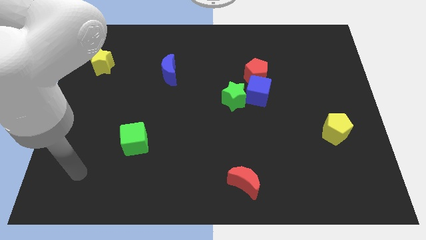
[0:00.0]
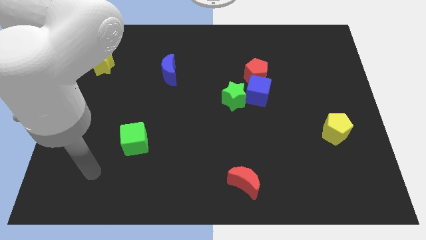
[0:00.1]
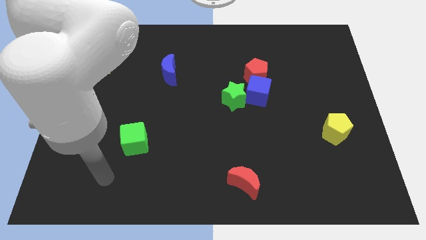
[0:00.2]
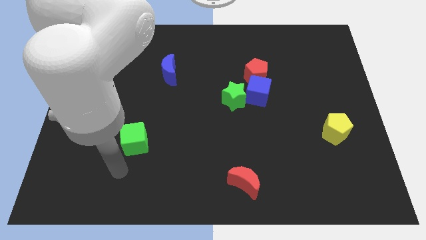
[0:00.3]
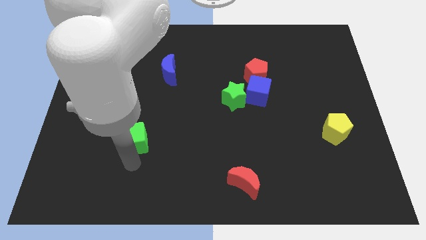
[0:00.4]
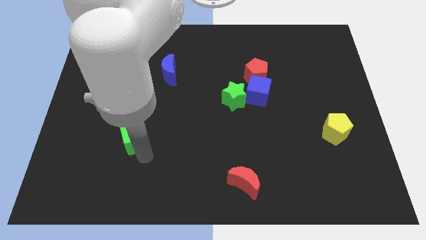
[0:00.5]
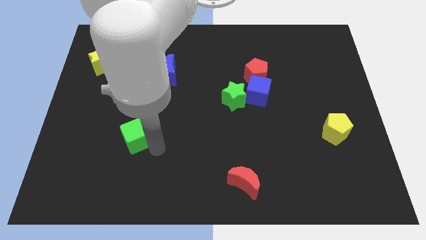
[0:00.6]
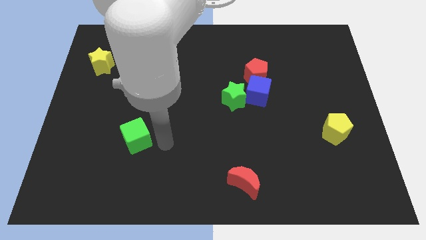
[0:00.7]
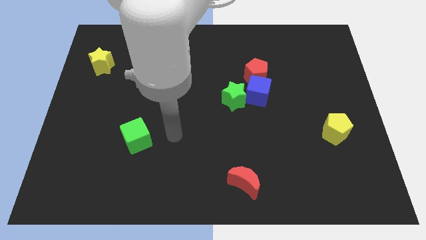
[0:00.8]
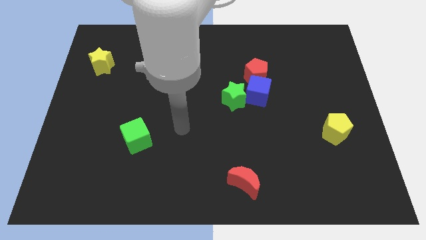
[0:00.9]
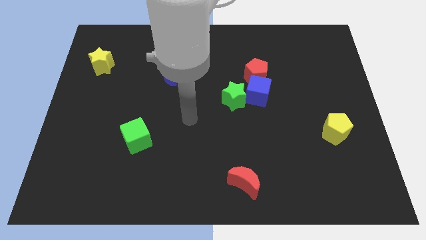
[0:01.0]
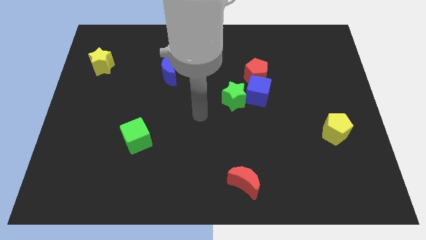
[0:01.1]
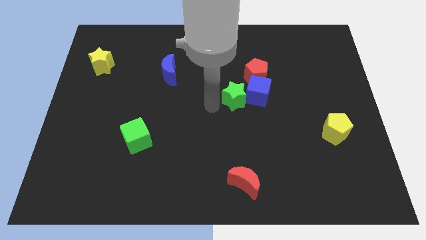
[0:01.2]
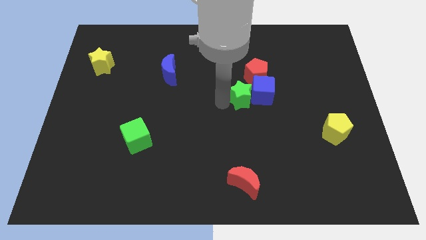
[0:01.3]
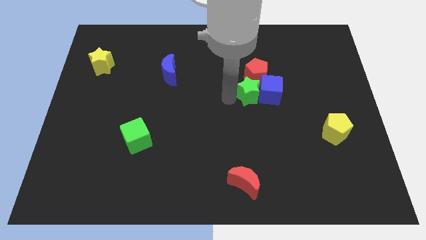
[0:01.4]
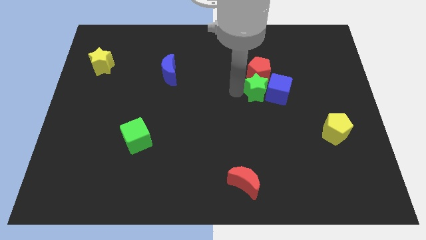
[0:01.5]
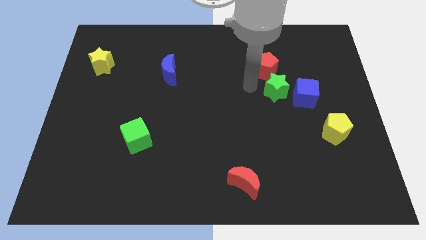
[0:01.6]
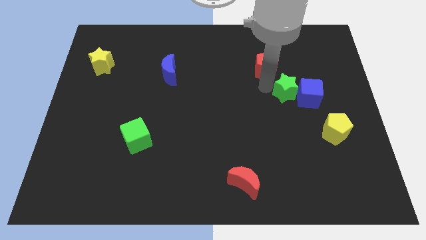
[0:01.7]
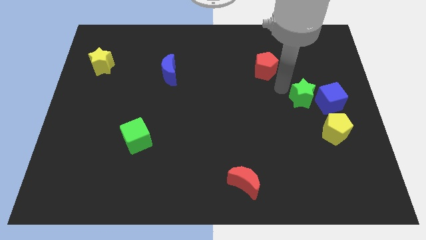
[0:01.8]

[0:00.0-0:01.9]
separate the blue cube from the green star and red pentagon

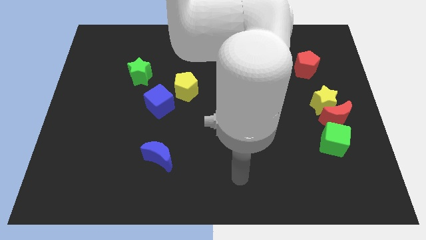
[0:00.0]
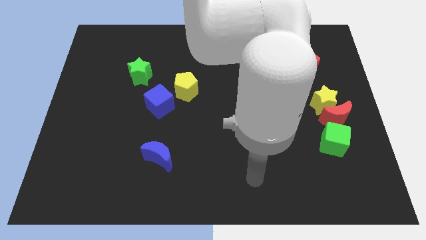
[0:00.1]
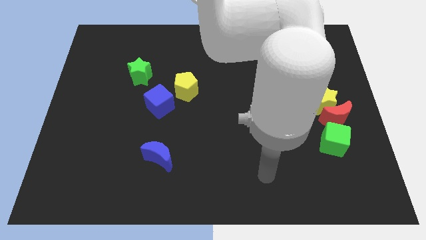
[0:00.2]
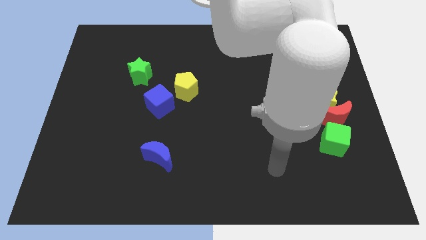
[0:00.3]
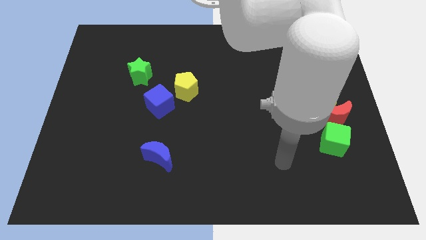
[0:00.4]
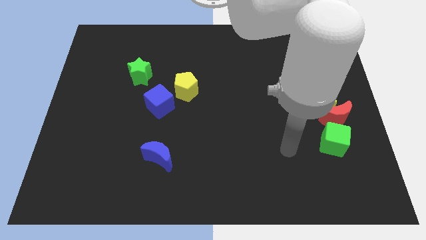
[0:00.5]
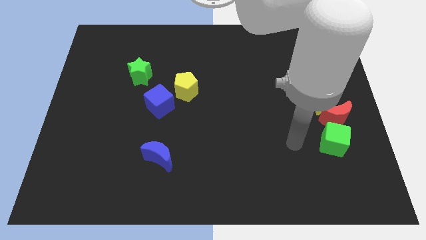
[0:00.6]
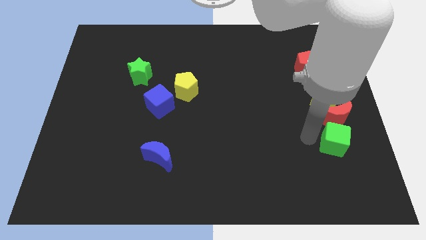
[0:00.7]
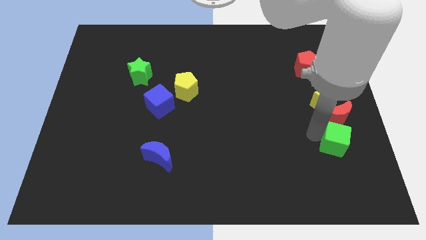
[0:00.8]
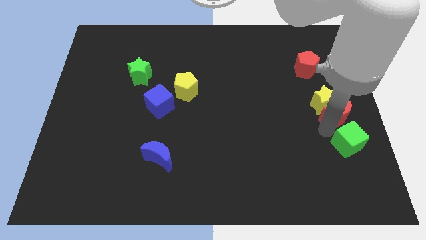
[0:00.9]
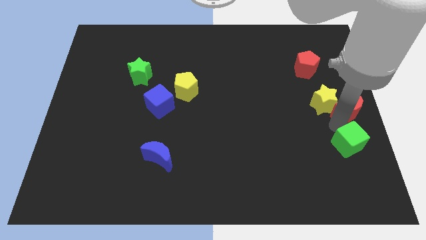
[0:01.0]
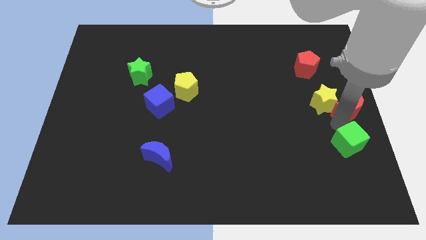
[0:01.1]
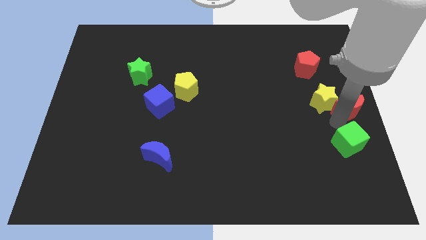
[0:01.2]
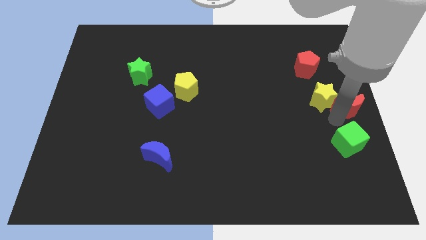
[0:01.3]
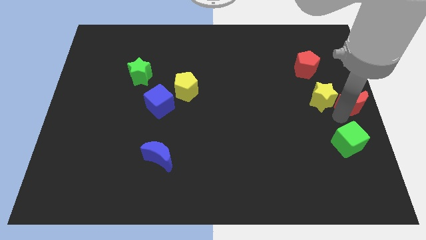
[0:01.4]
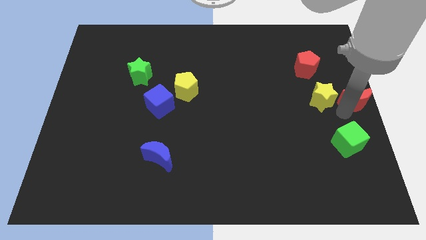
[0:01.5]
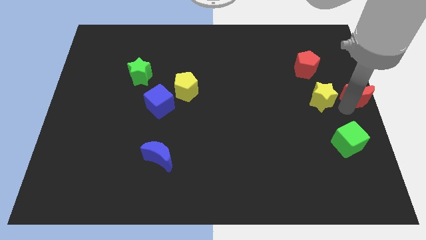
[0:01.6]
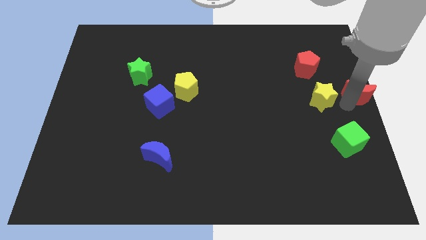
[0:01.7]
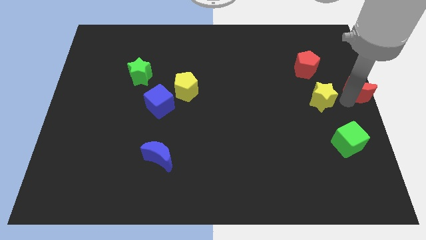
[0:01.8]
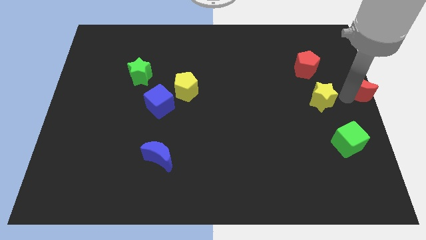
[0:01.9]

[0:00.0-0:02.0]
separate the yellow star from the red moon

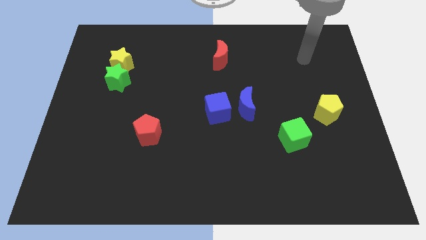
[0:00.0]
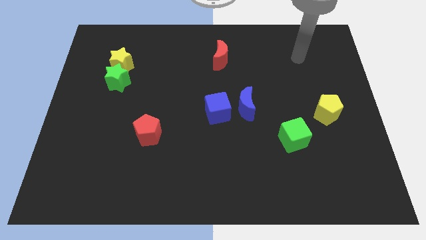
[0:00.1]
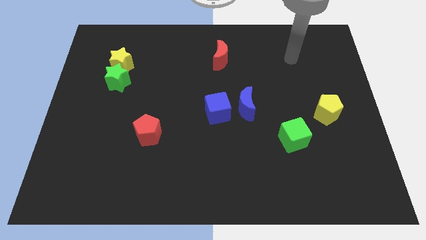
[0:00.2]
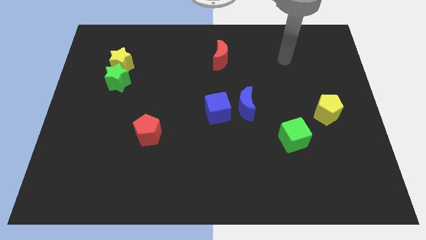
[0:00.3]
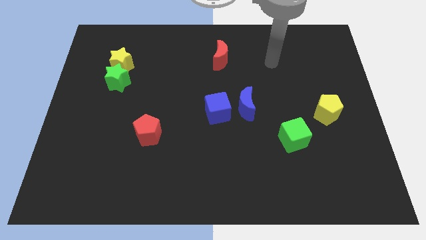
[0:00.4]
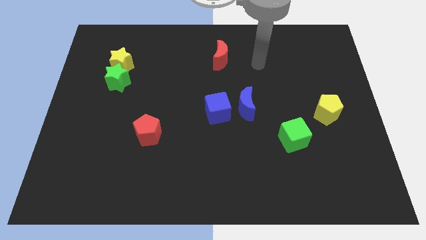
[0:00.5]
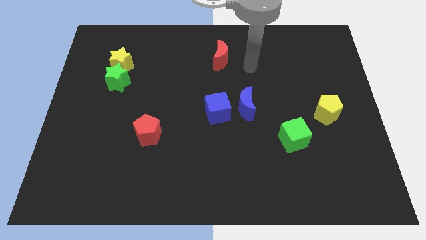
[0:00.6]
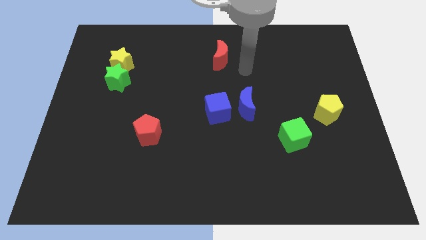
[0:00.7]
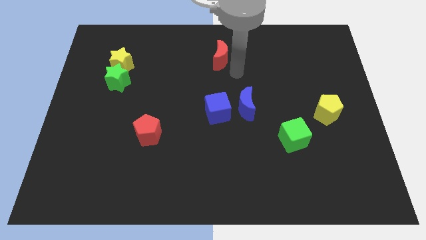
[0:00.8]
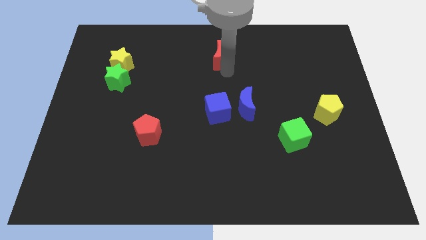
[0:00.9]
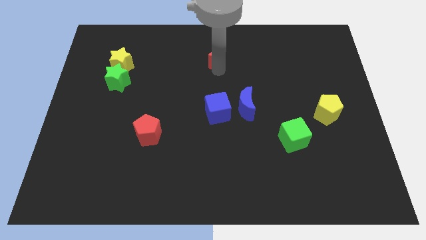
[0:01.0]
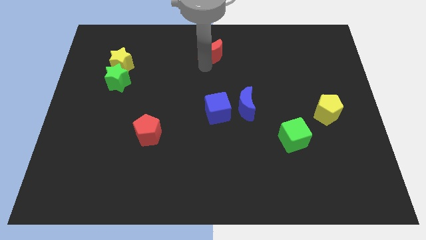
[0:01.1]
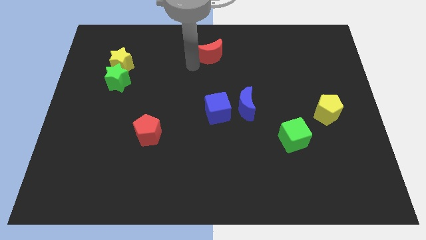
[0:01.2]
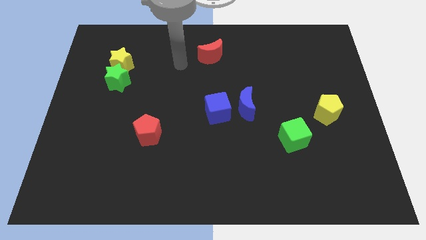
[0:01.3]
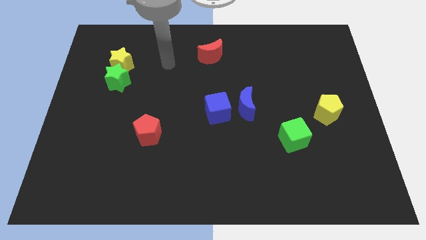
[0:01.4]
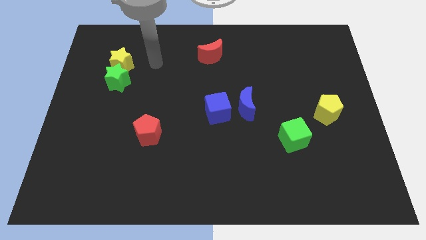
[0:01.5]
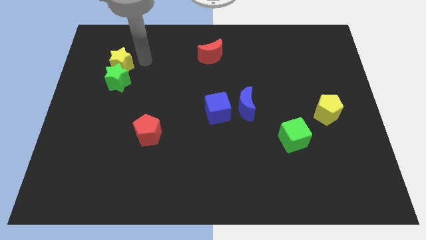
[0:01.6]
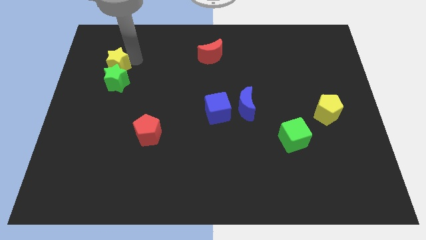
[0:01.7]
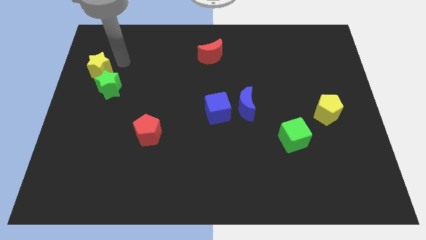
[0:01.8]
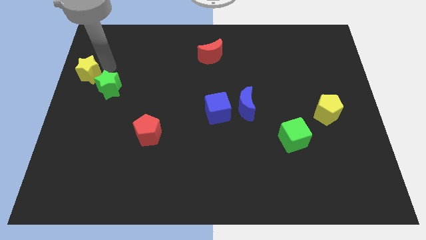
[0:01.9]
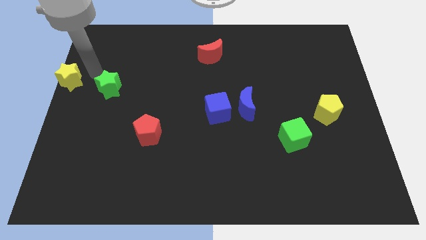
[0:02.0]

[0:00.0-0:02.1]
pull the green star apart from the yellow star

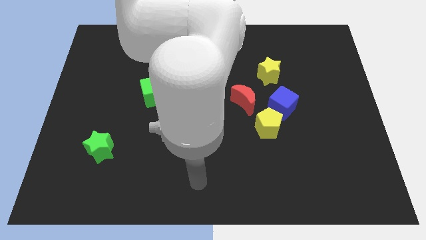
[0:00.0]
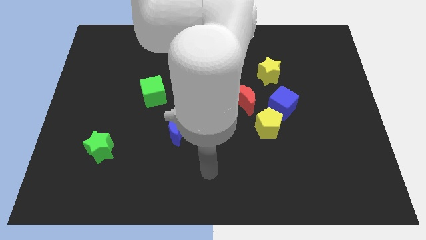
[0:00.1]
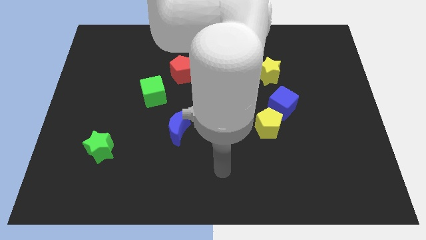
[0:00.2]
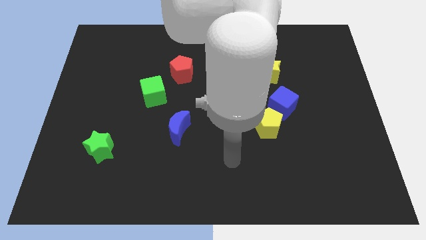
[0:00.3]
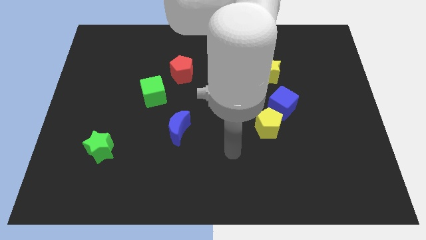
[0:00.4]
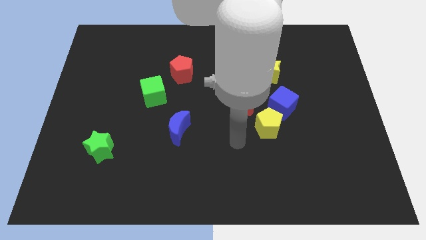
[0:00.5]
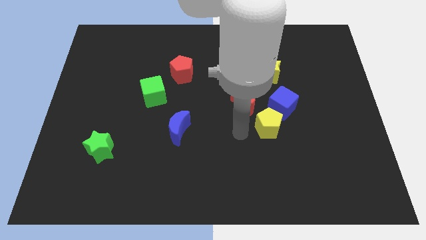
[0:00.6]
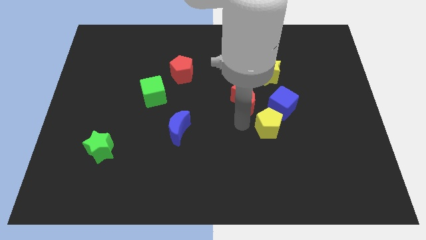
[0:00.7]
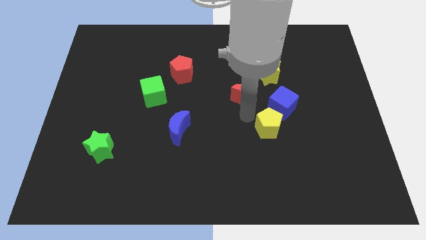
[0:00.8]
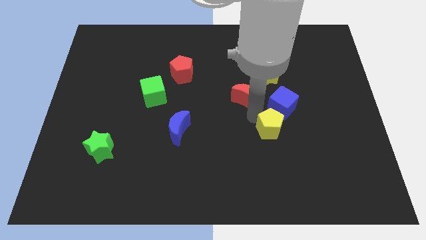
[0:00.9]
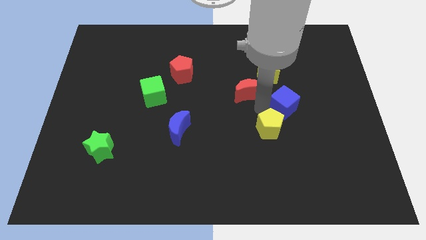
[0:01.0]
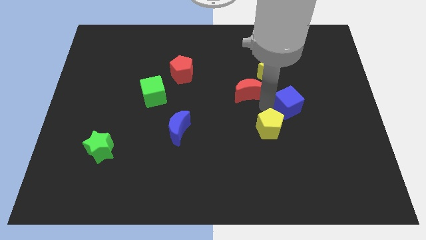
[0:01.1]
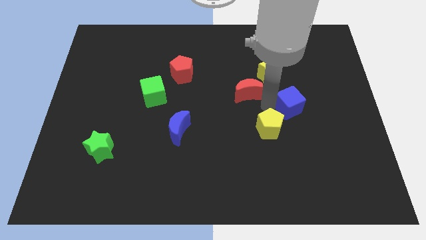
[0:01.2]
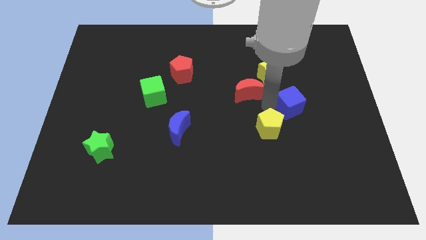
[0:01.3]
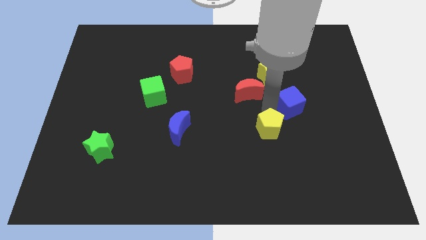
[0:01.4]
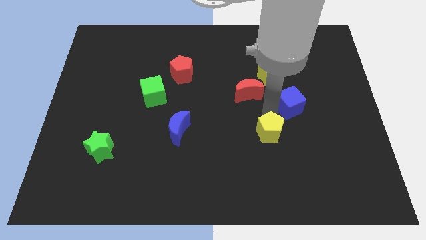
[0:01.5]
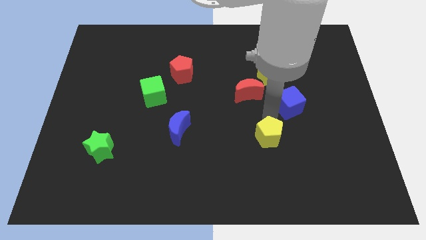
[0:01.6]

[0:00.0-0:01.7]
move the yellow pentagon away from the blue cube and red moon

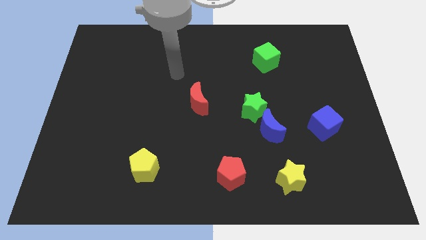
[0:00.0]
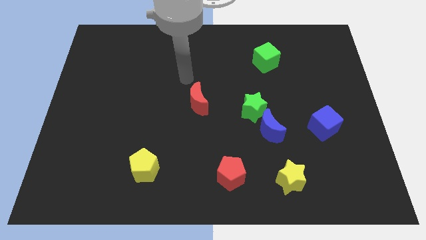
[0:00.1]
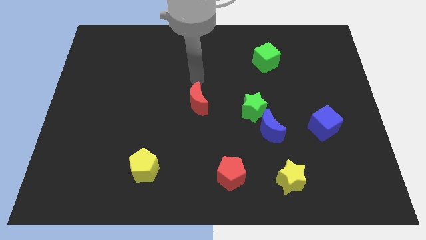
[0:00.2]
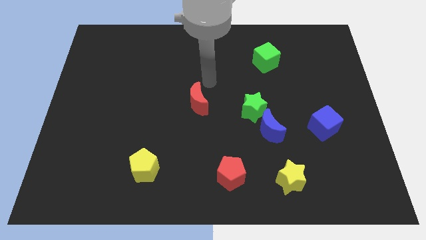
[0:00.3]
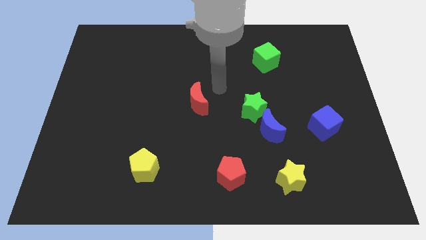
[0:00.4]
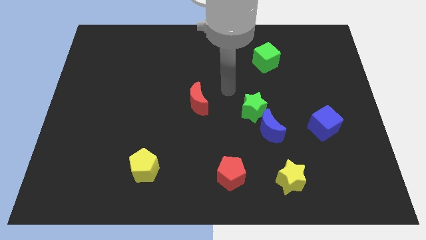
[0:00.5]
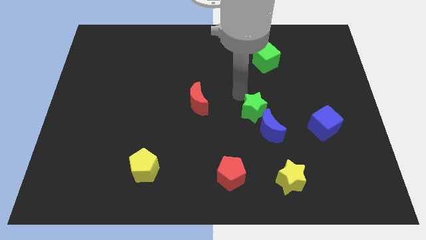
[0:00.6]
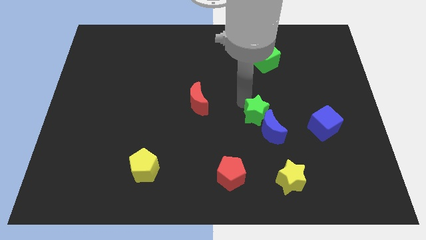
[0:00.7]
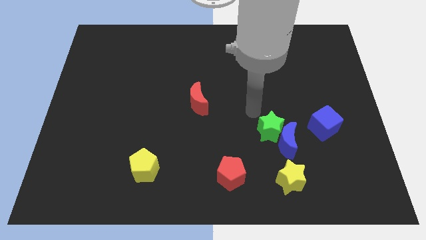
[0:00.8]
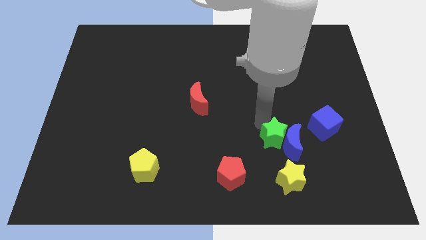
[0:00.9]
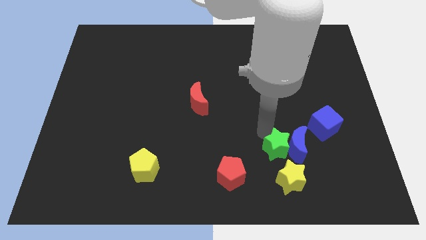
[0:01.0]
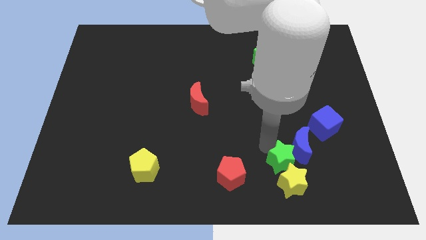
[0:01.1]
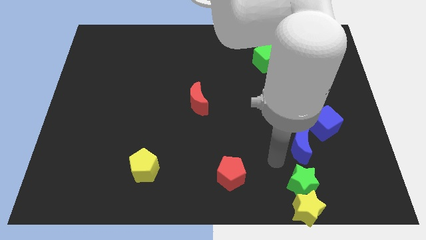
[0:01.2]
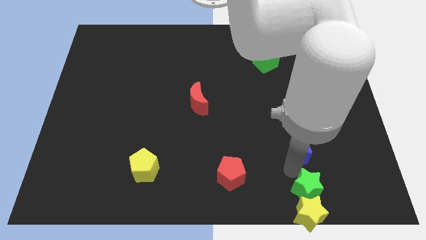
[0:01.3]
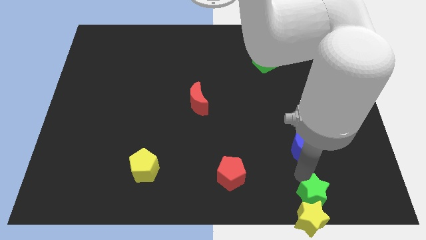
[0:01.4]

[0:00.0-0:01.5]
pull the blue moon apart from the green star
